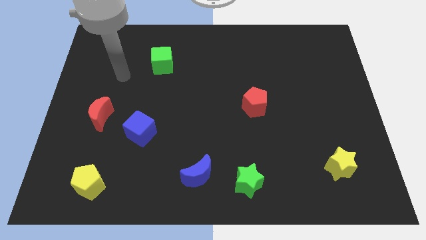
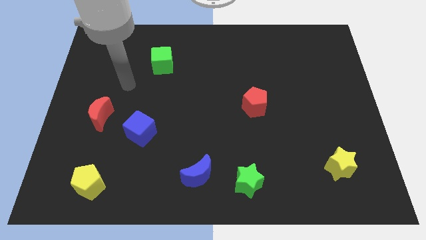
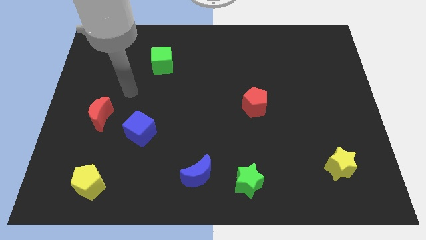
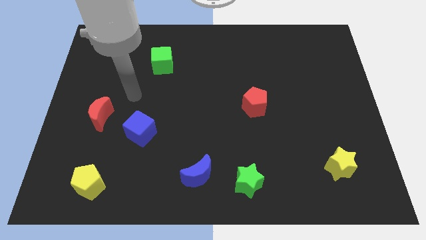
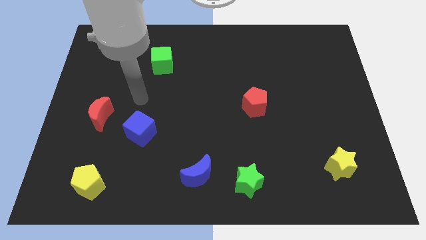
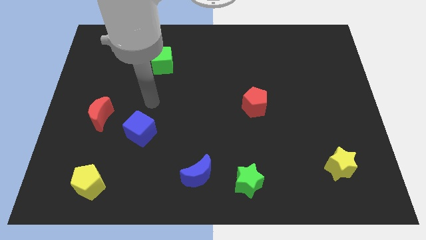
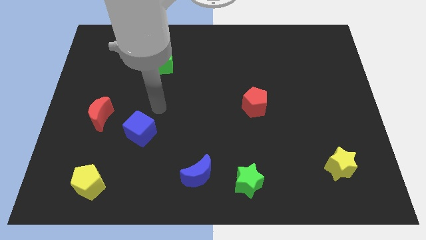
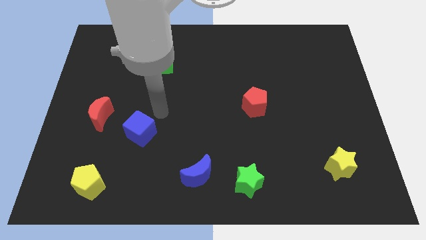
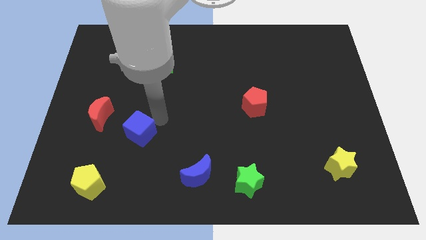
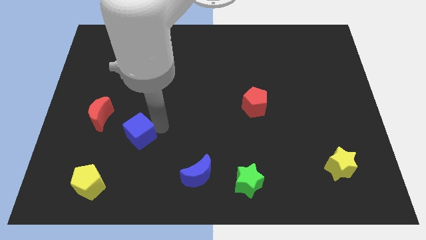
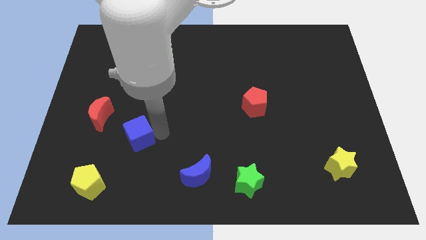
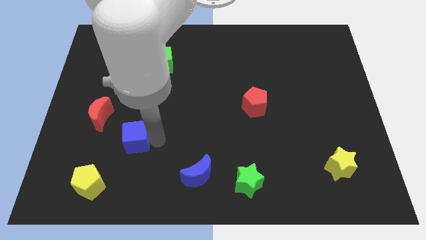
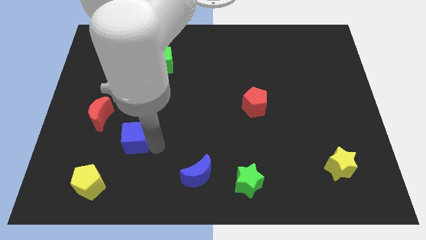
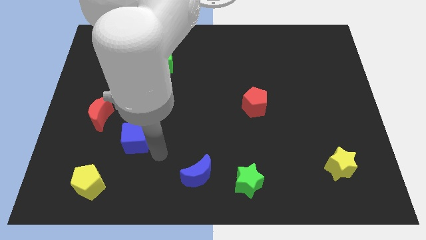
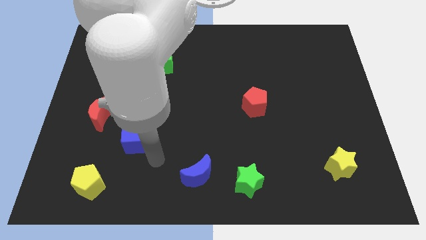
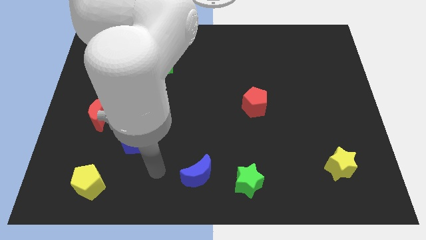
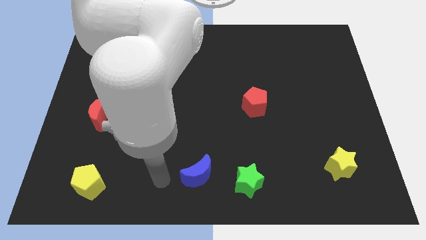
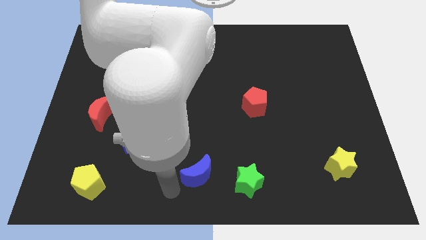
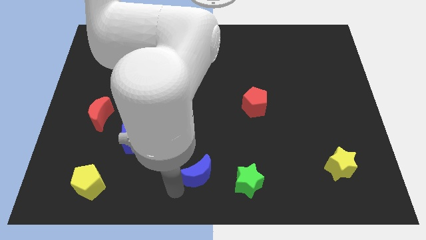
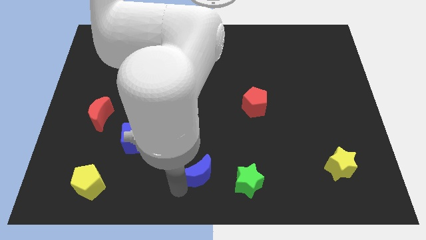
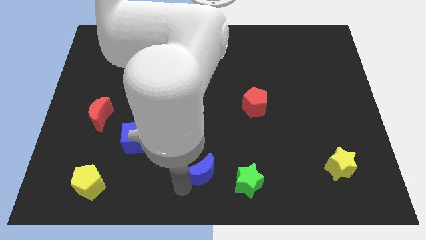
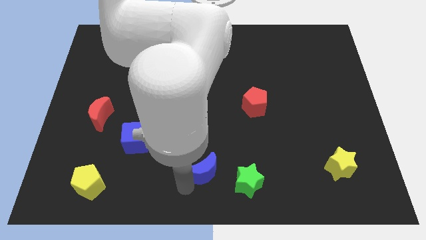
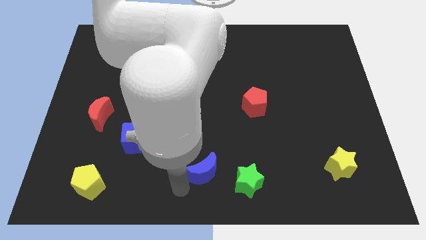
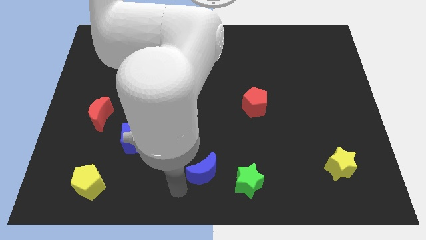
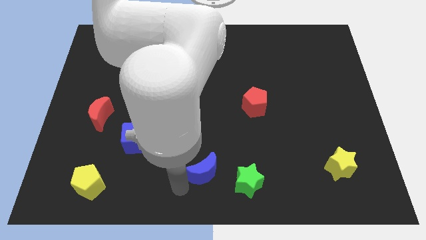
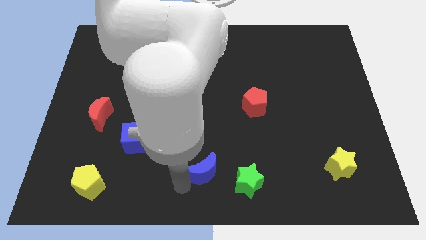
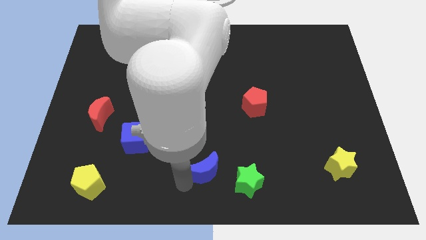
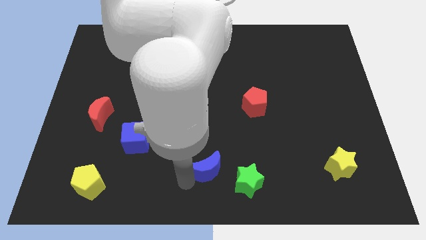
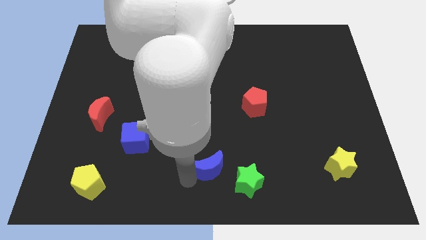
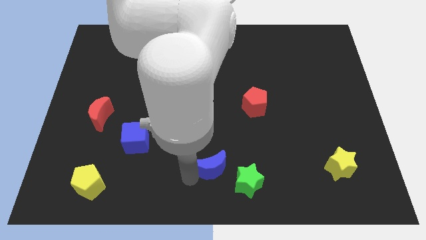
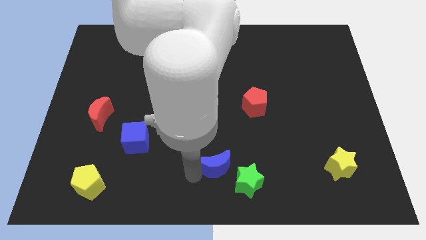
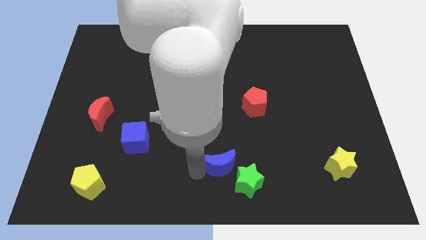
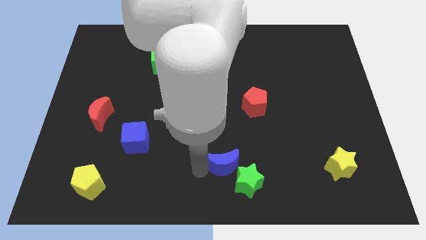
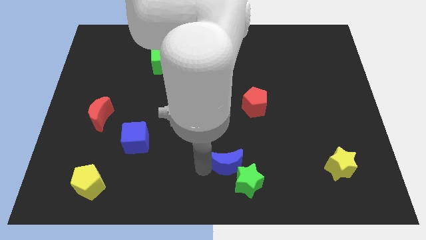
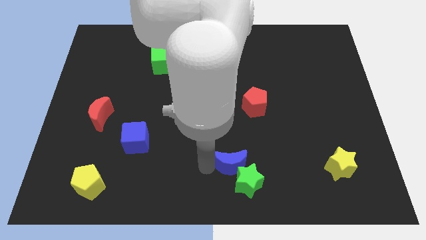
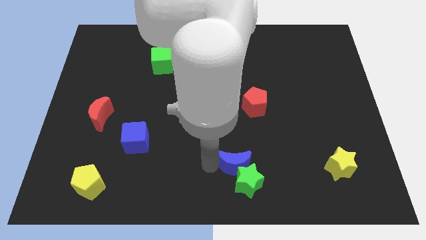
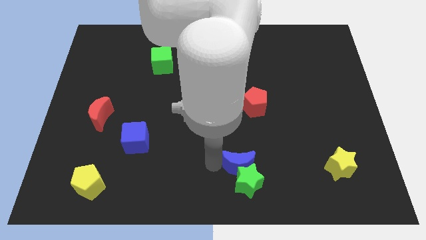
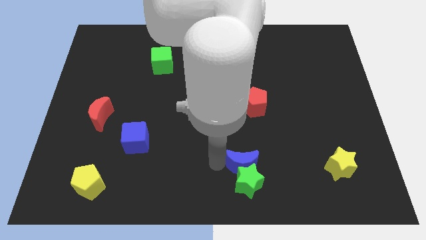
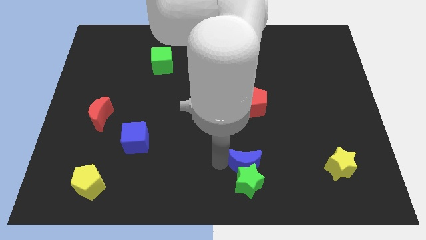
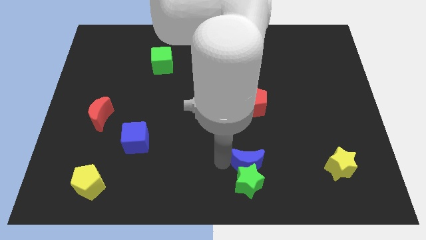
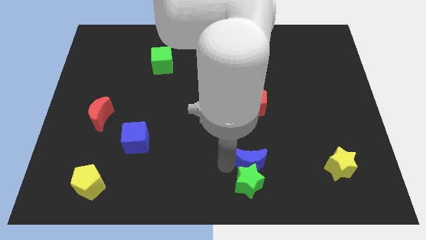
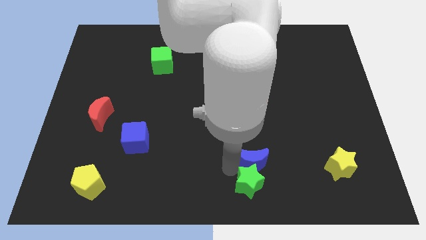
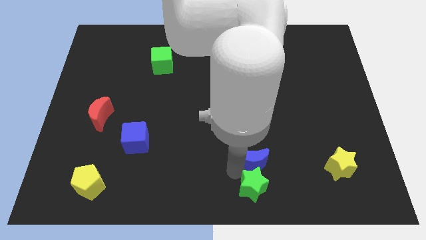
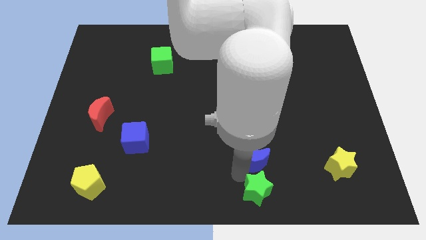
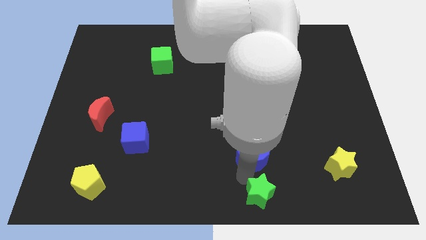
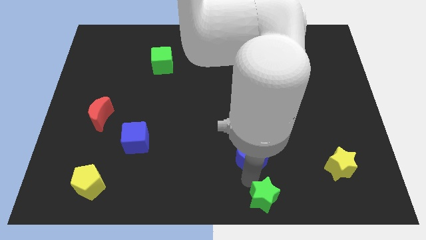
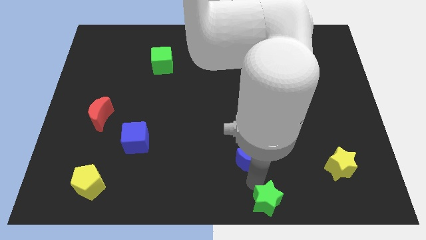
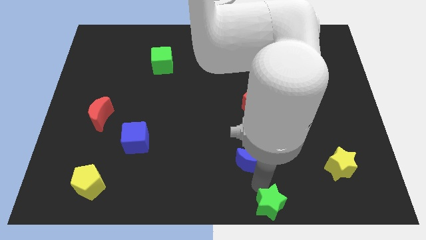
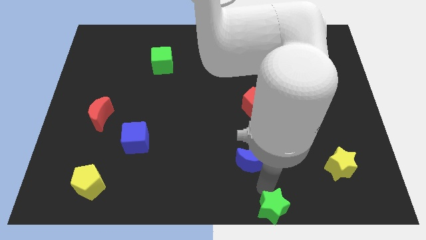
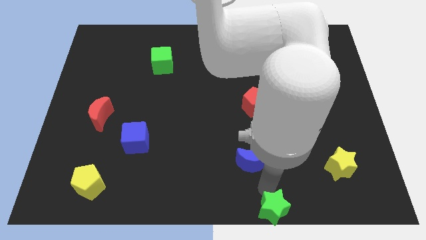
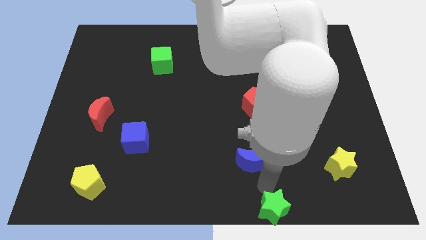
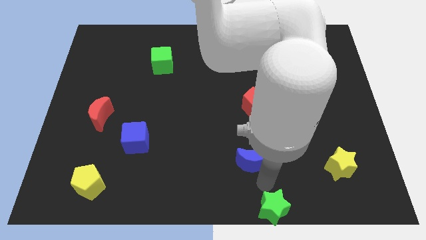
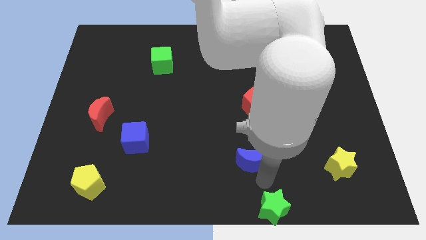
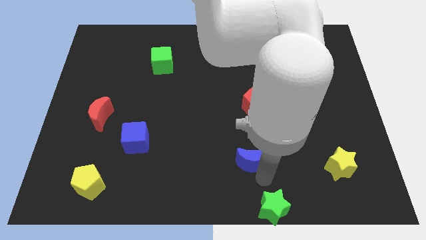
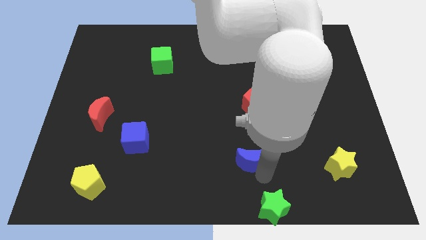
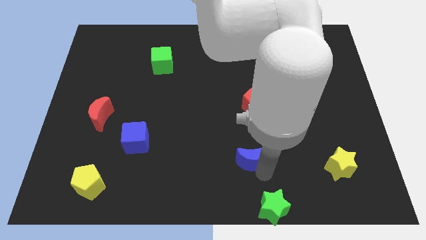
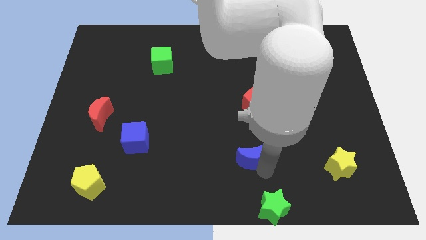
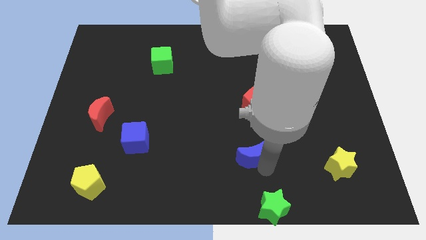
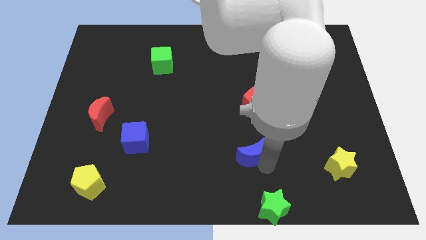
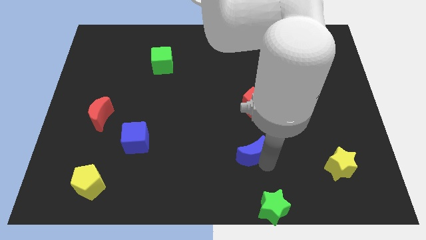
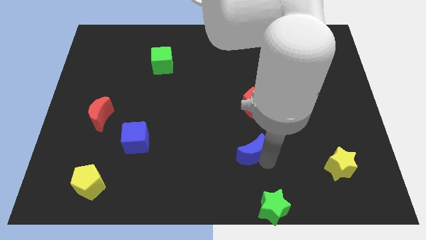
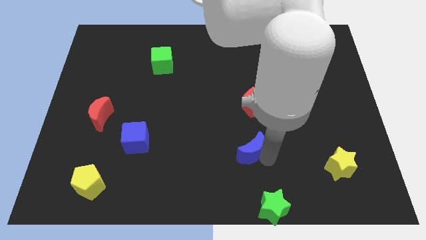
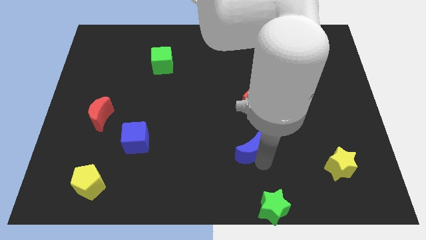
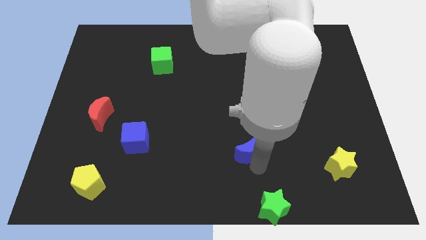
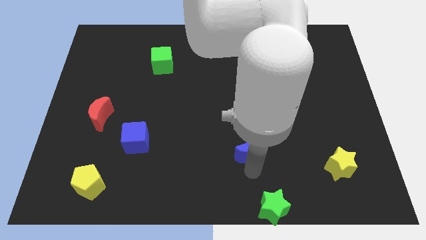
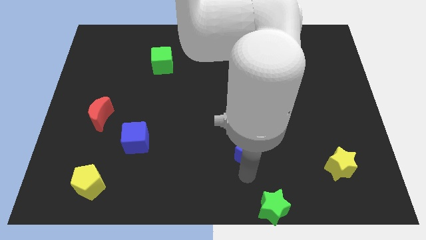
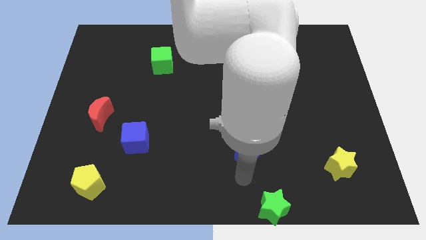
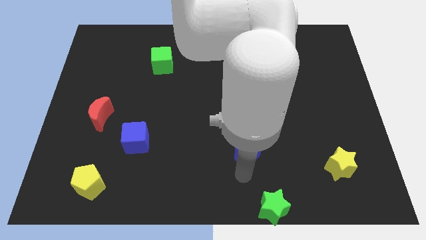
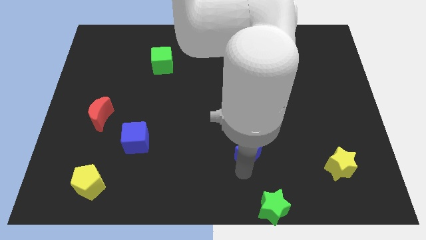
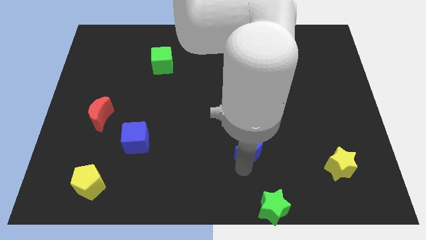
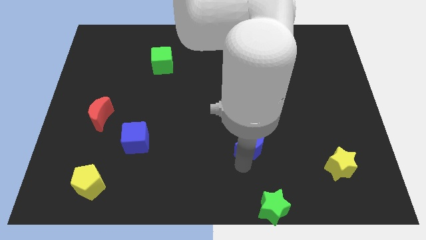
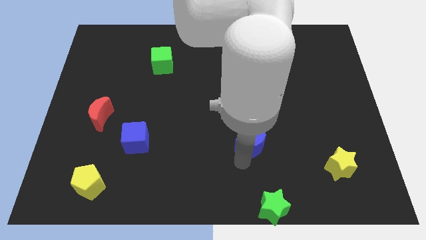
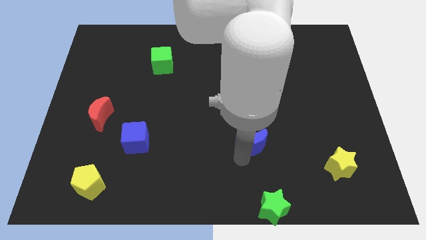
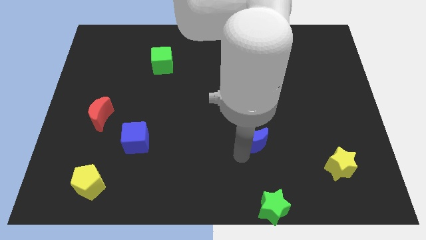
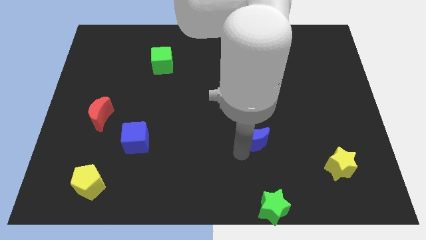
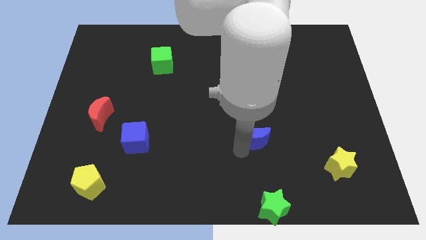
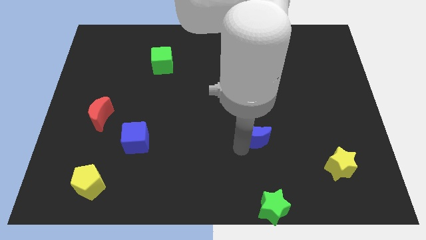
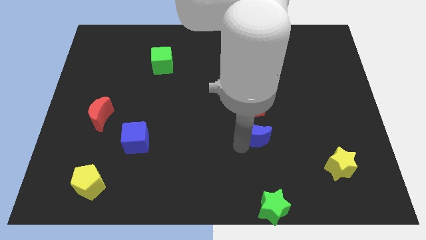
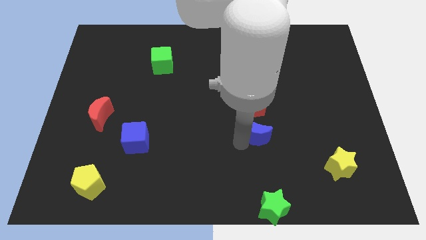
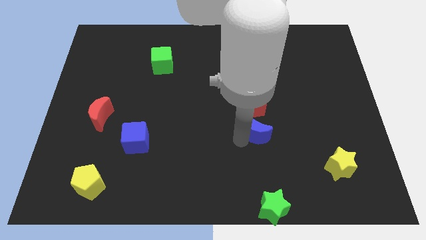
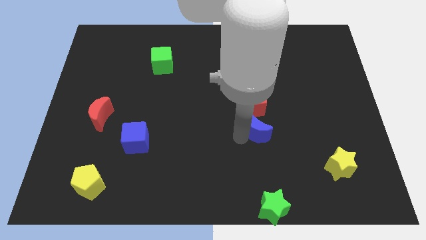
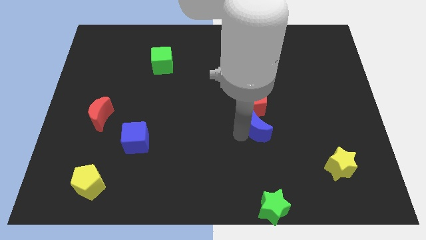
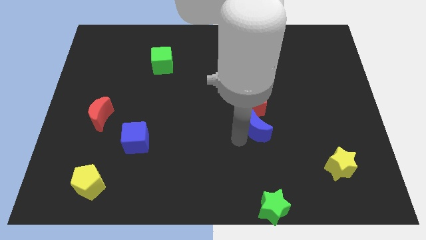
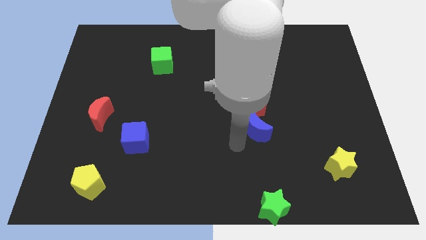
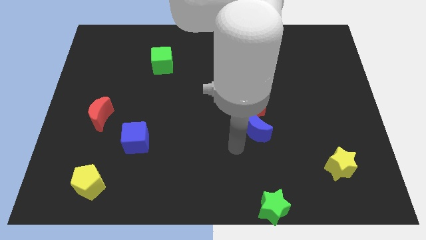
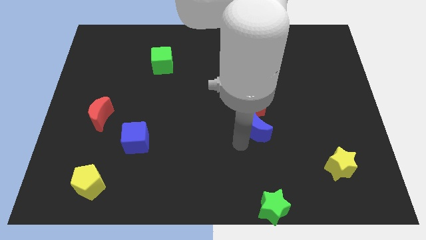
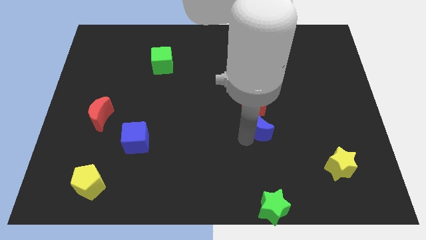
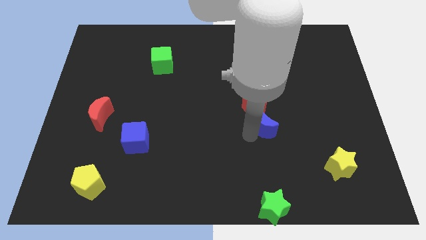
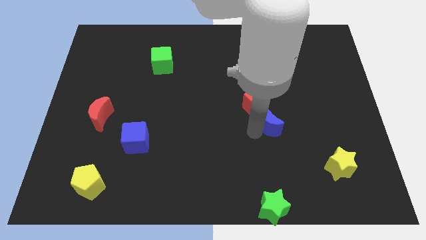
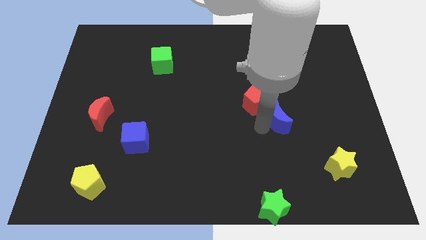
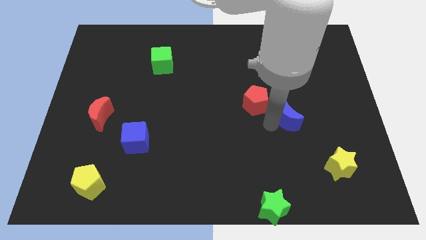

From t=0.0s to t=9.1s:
push the blue moon to the right of the red pentagon
